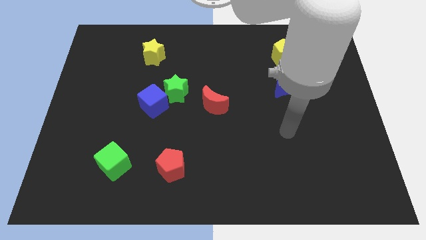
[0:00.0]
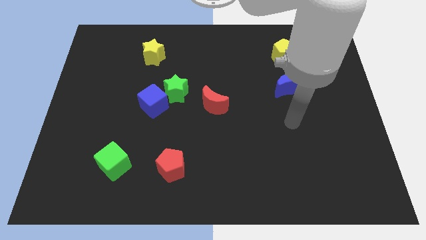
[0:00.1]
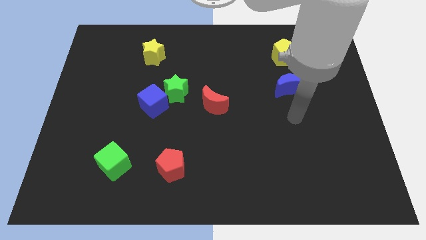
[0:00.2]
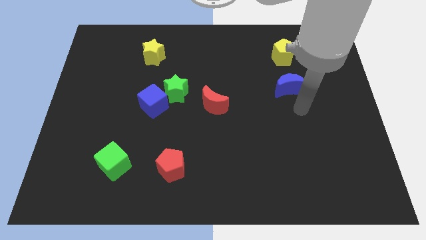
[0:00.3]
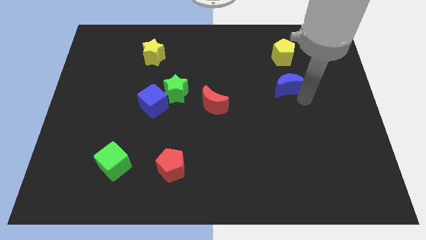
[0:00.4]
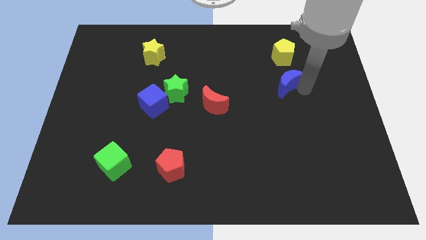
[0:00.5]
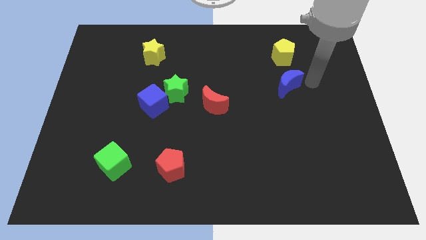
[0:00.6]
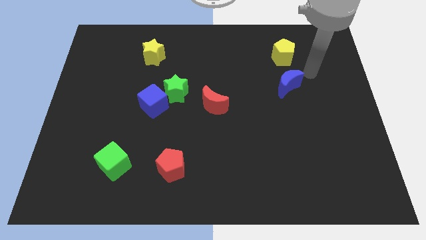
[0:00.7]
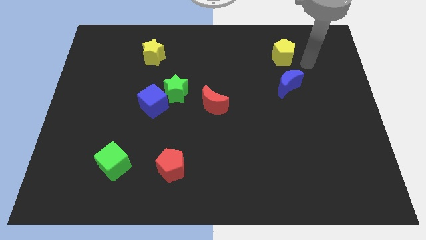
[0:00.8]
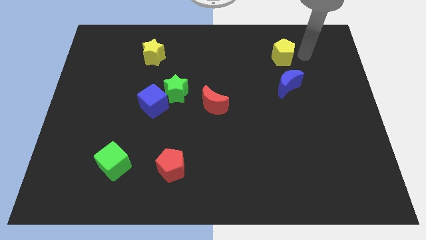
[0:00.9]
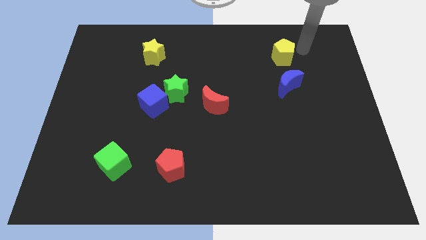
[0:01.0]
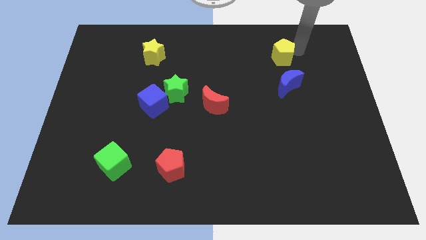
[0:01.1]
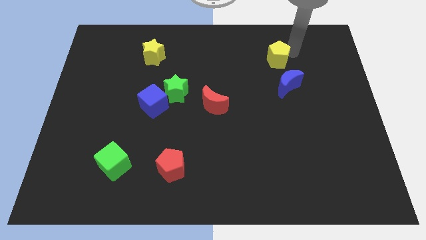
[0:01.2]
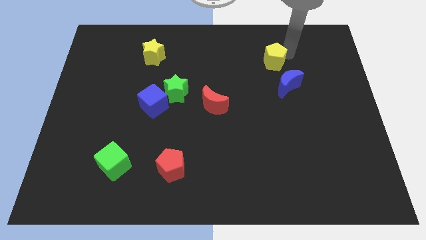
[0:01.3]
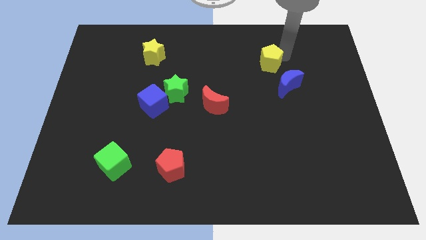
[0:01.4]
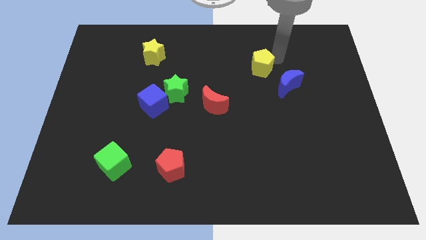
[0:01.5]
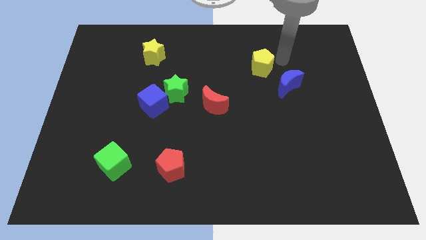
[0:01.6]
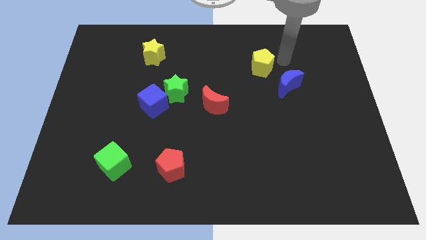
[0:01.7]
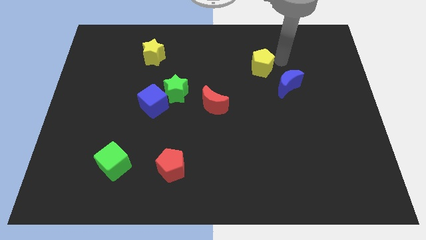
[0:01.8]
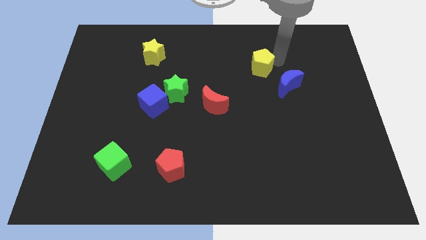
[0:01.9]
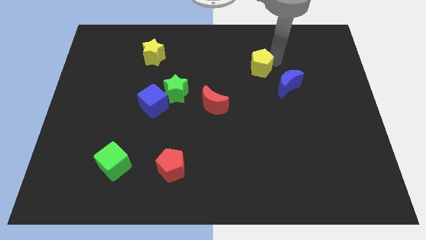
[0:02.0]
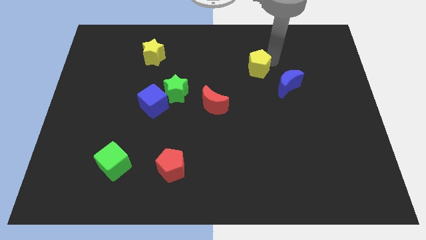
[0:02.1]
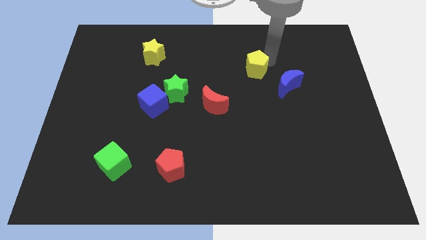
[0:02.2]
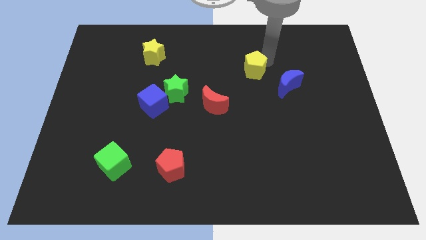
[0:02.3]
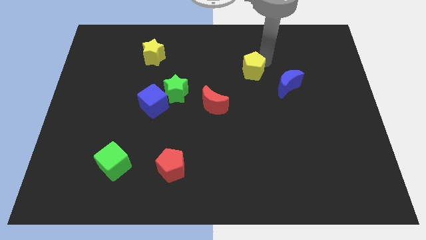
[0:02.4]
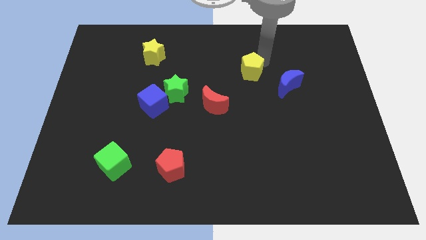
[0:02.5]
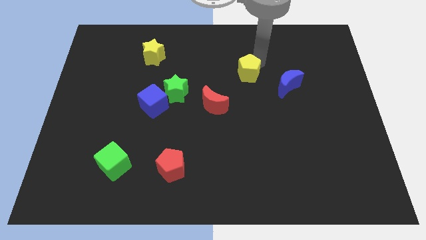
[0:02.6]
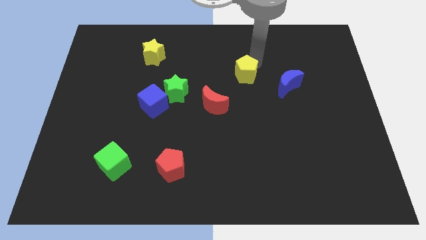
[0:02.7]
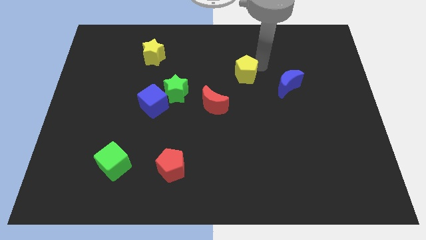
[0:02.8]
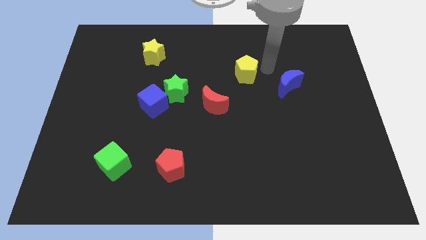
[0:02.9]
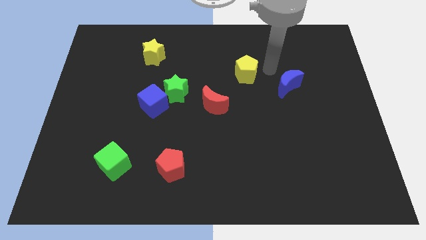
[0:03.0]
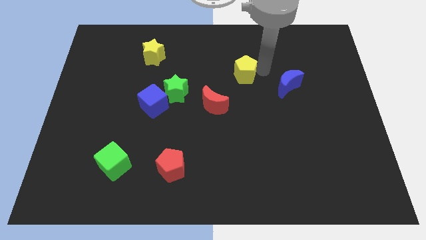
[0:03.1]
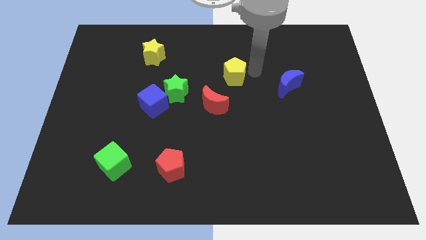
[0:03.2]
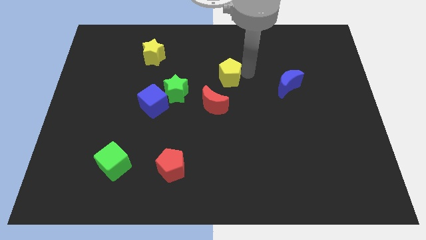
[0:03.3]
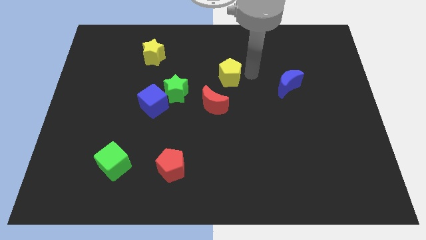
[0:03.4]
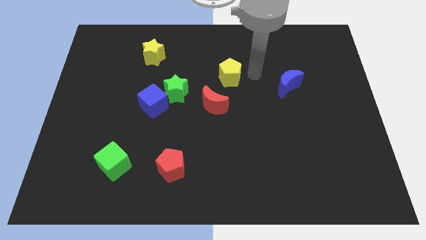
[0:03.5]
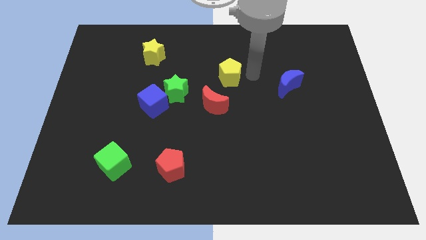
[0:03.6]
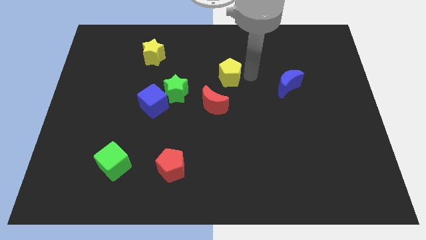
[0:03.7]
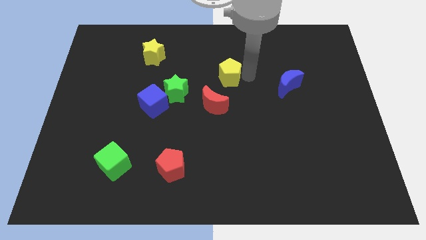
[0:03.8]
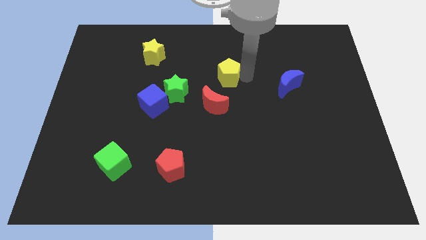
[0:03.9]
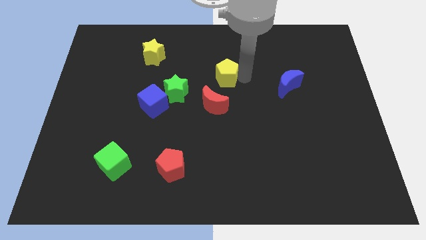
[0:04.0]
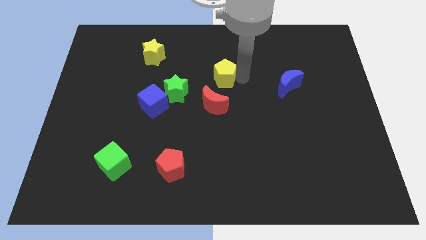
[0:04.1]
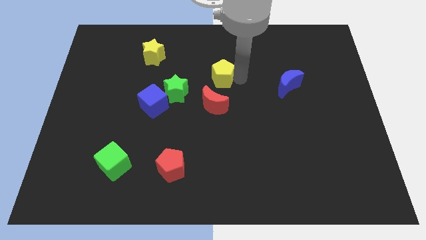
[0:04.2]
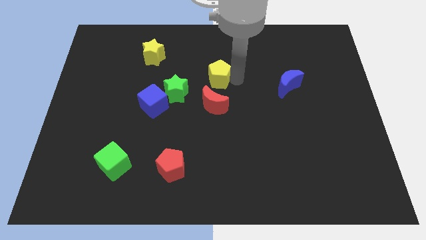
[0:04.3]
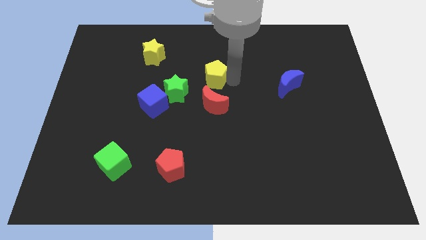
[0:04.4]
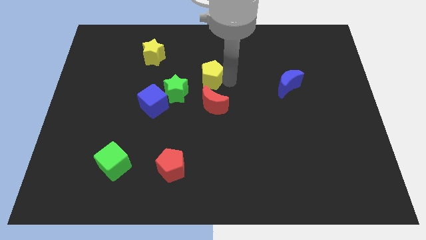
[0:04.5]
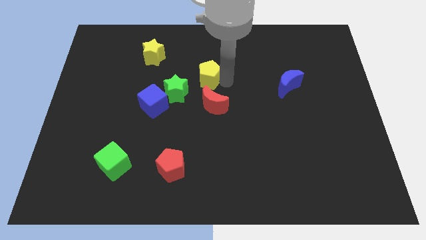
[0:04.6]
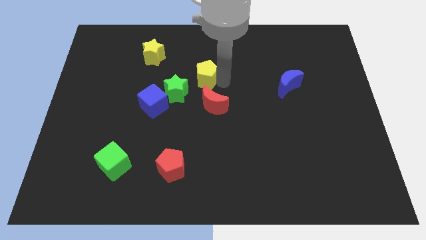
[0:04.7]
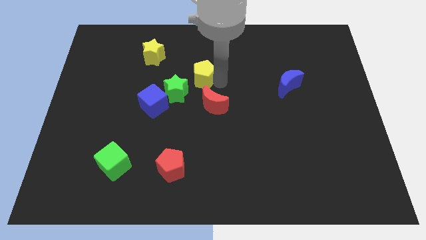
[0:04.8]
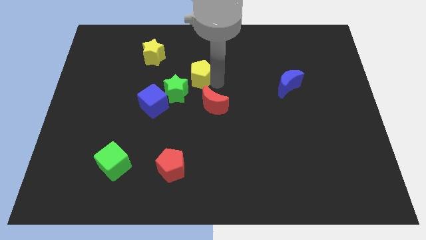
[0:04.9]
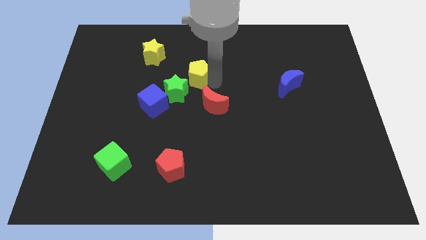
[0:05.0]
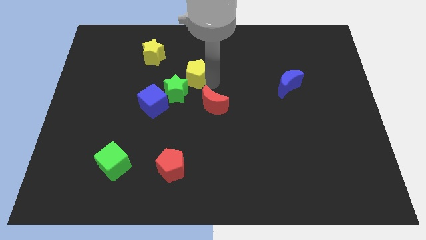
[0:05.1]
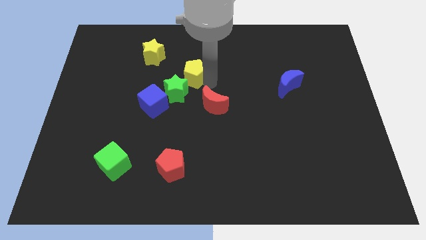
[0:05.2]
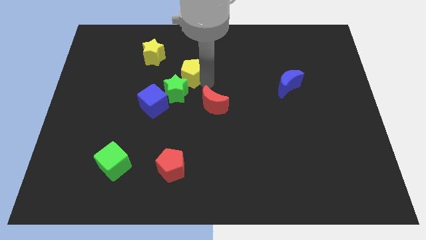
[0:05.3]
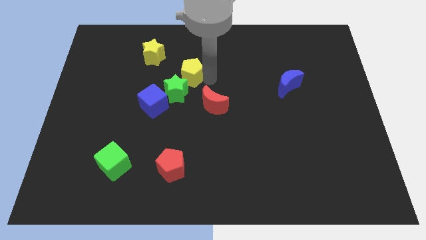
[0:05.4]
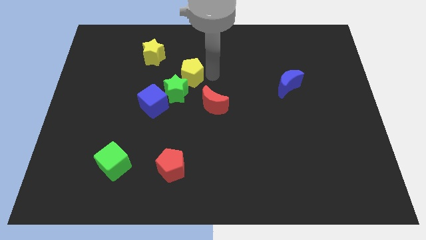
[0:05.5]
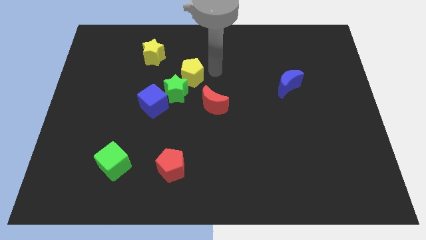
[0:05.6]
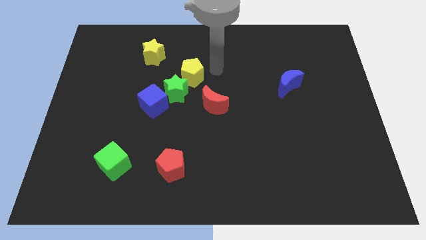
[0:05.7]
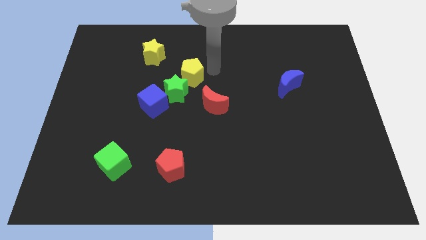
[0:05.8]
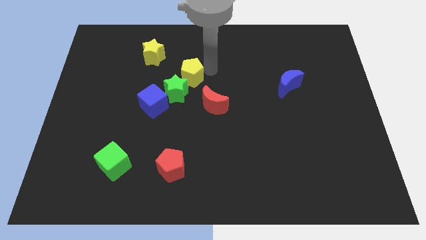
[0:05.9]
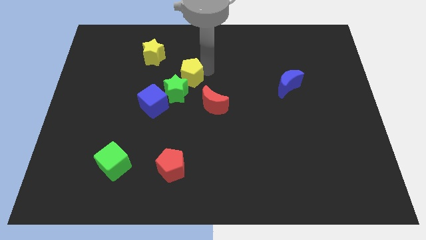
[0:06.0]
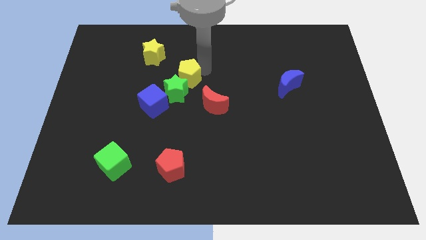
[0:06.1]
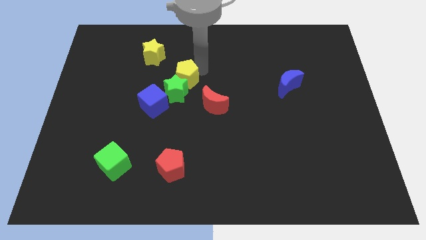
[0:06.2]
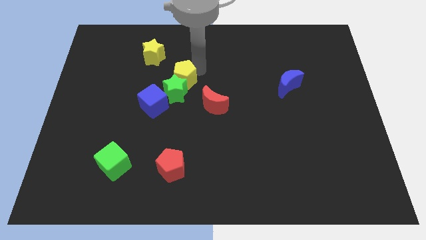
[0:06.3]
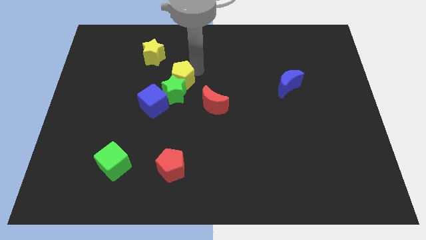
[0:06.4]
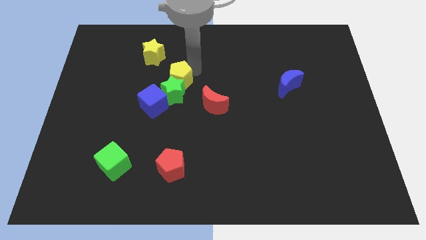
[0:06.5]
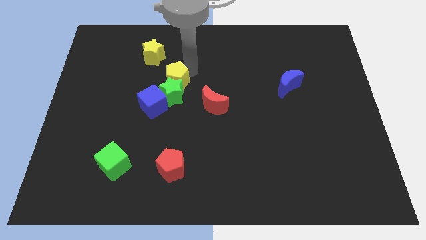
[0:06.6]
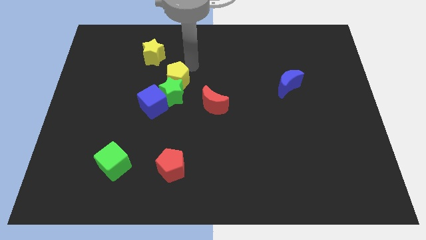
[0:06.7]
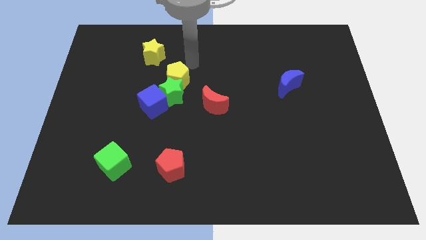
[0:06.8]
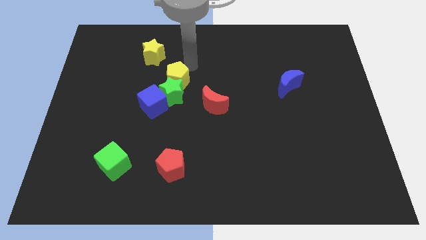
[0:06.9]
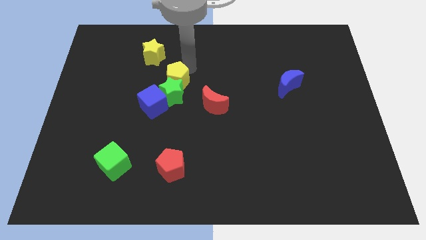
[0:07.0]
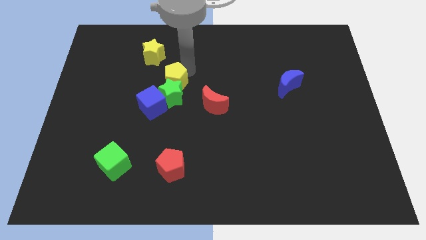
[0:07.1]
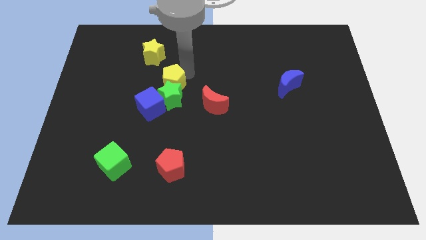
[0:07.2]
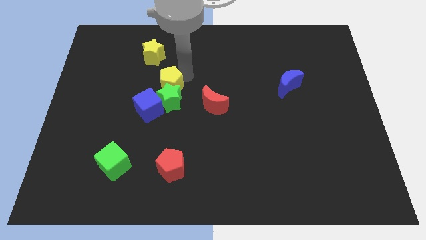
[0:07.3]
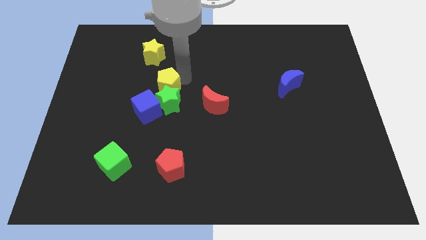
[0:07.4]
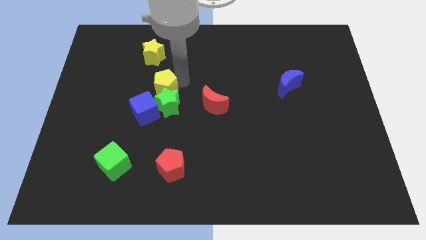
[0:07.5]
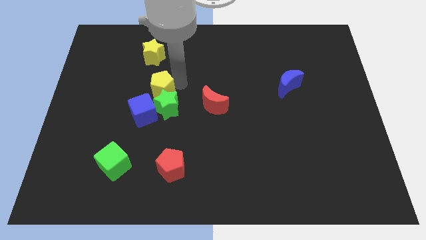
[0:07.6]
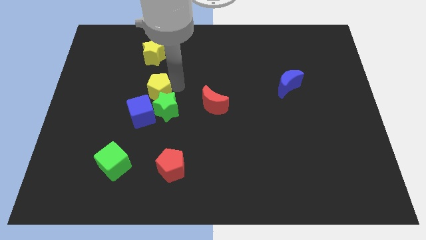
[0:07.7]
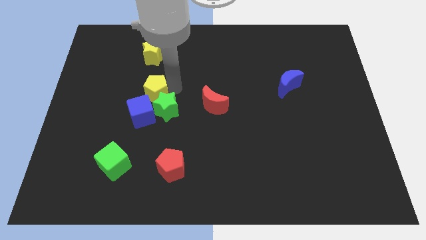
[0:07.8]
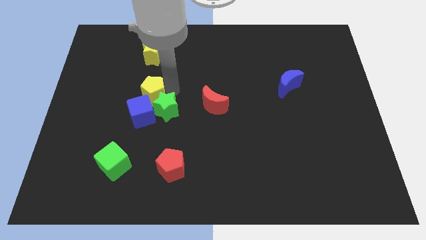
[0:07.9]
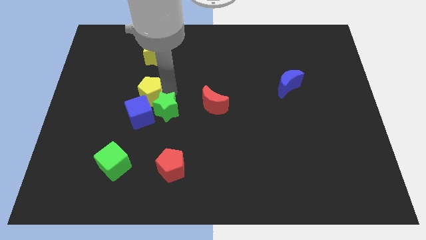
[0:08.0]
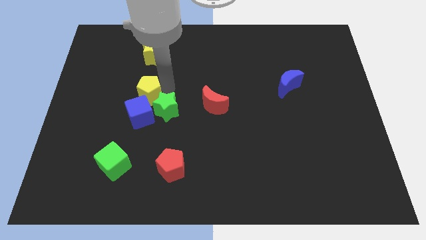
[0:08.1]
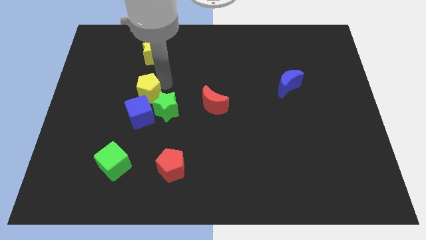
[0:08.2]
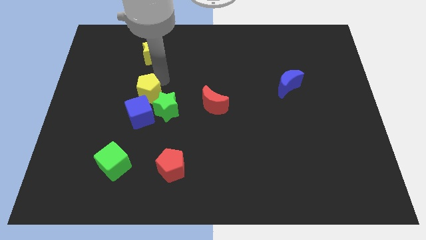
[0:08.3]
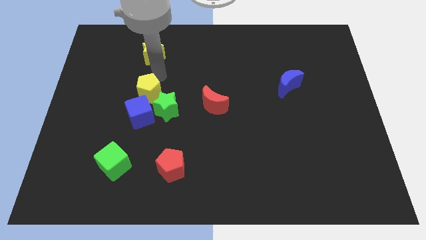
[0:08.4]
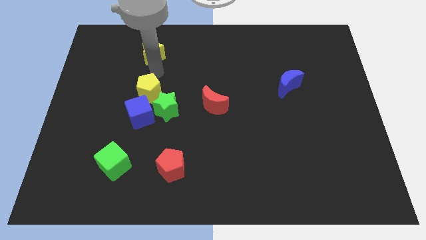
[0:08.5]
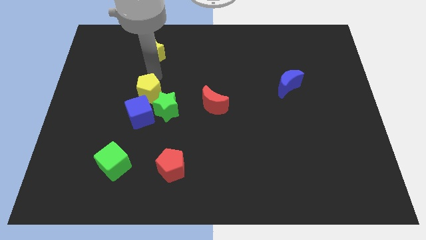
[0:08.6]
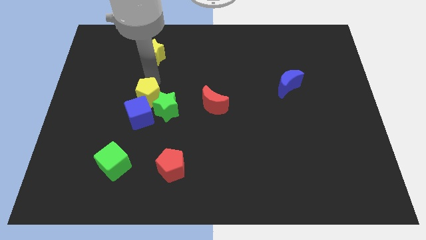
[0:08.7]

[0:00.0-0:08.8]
push the yellow pentagon to the blue cube
